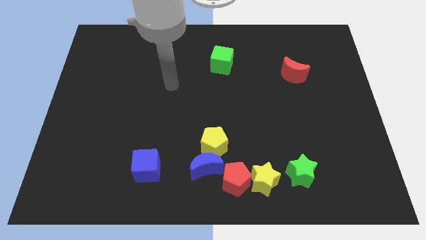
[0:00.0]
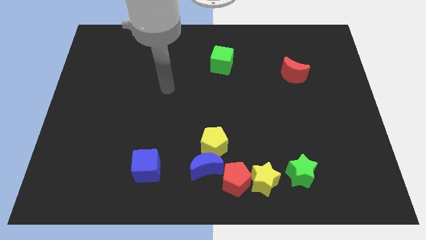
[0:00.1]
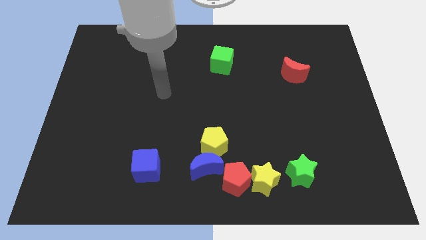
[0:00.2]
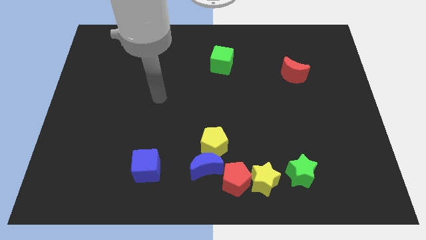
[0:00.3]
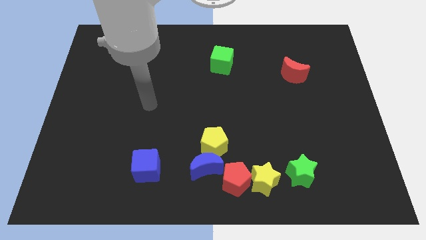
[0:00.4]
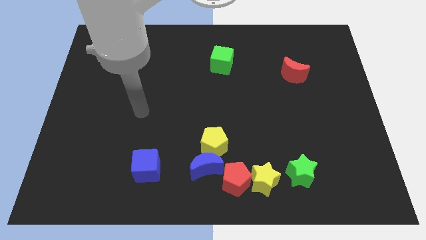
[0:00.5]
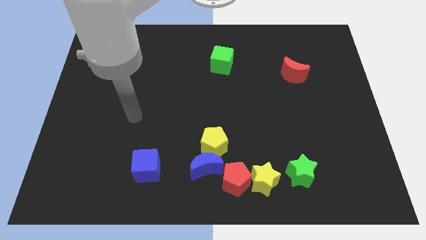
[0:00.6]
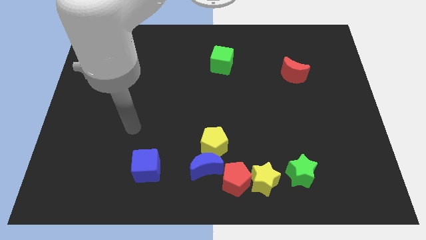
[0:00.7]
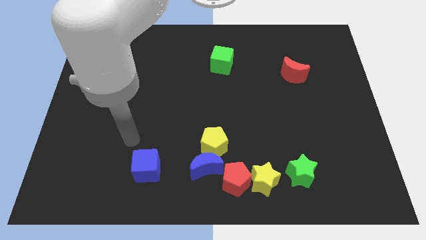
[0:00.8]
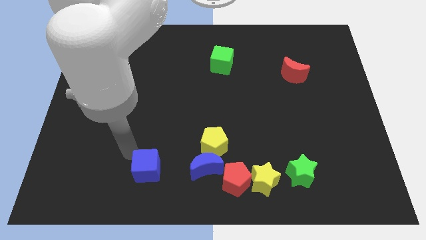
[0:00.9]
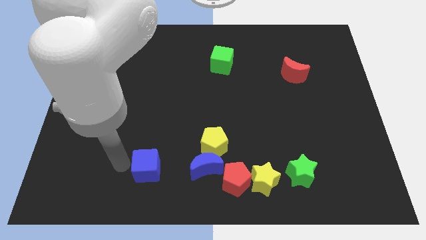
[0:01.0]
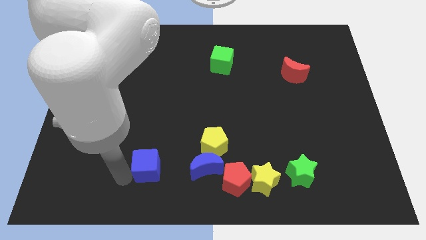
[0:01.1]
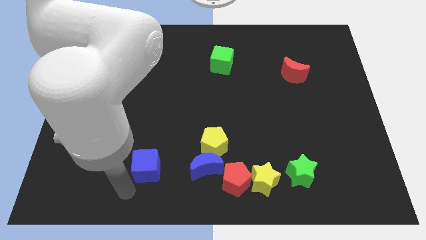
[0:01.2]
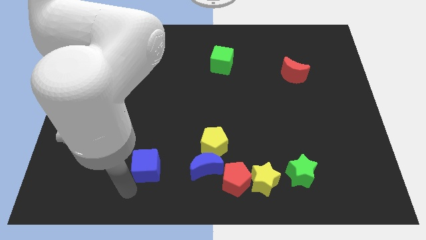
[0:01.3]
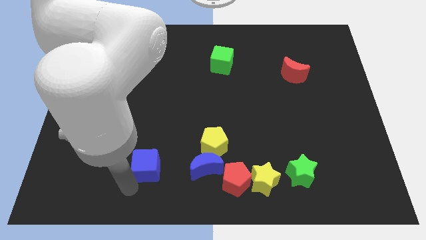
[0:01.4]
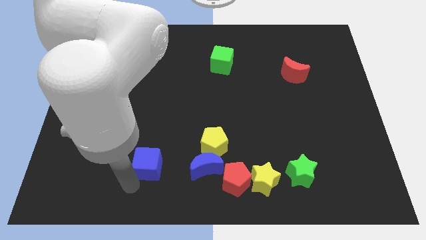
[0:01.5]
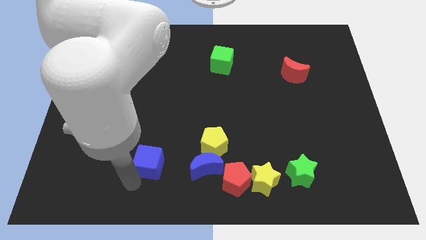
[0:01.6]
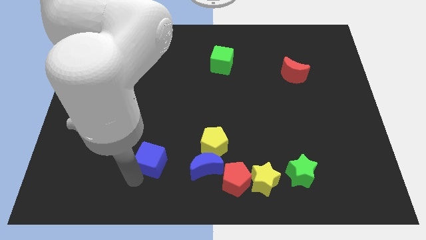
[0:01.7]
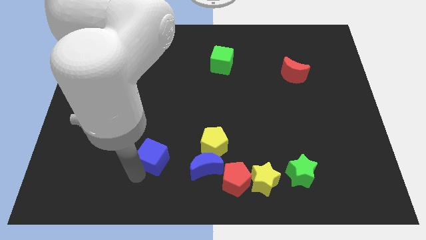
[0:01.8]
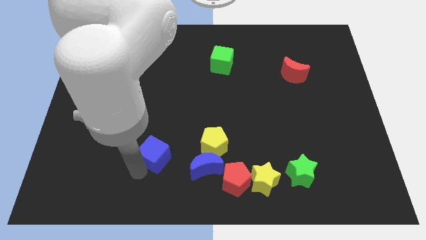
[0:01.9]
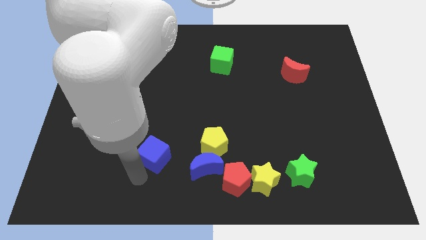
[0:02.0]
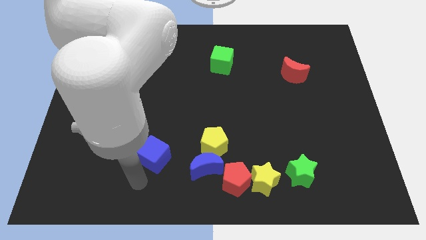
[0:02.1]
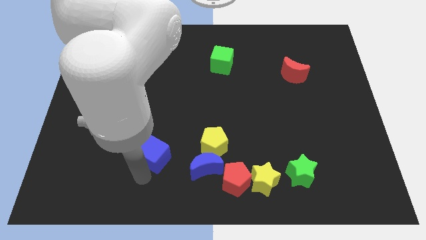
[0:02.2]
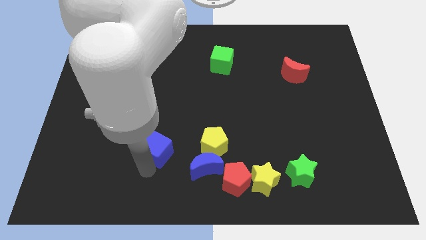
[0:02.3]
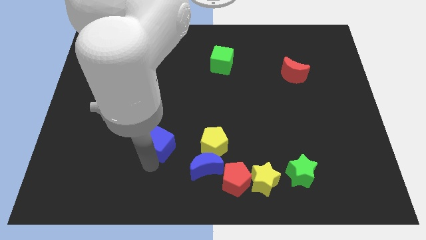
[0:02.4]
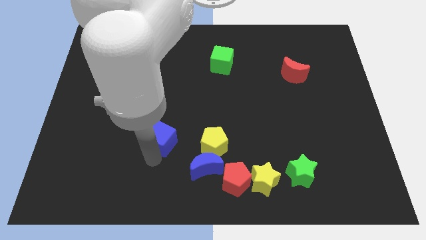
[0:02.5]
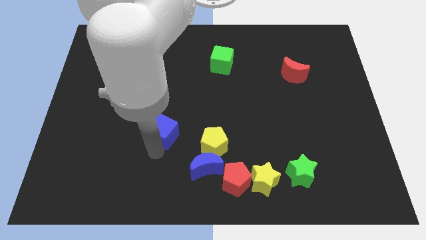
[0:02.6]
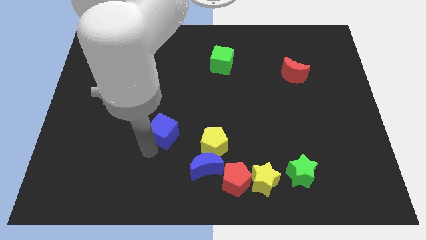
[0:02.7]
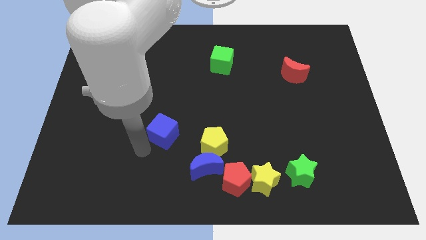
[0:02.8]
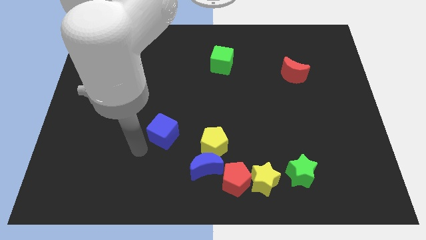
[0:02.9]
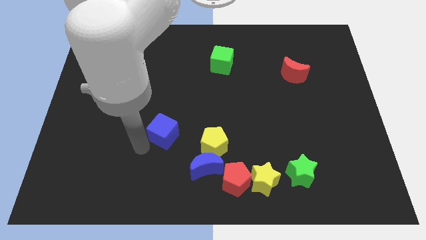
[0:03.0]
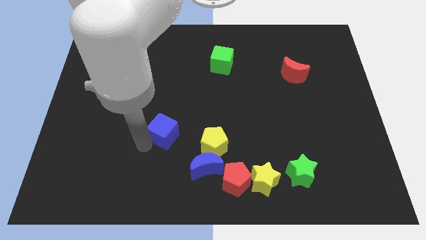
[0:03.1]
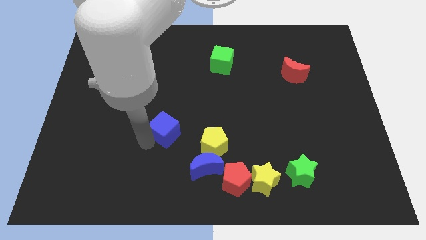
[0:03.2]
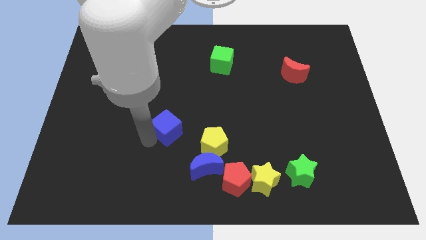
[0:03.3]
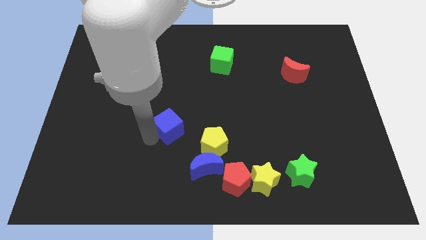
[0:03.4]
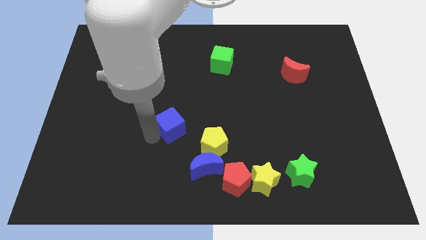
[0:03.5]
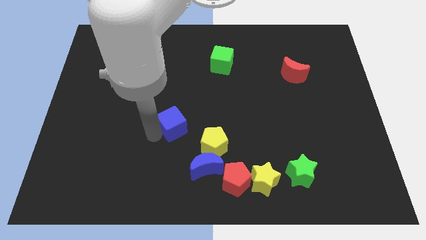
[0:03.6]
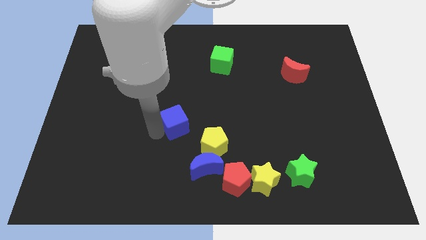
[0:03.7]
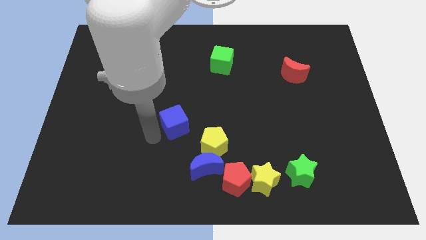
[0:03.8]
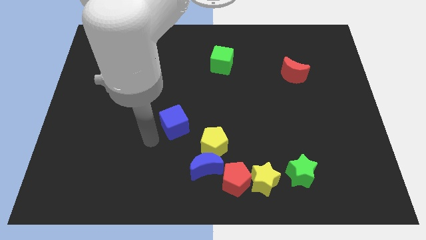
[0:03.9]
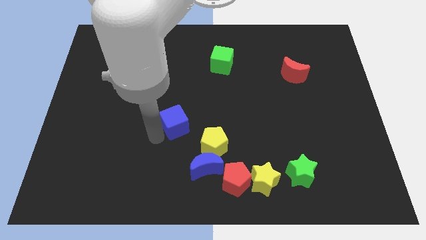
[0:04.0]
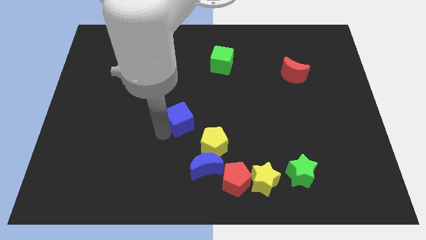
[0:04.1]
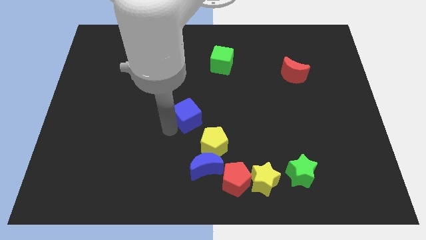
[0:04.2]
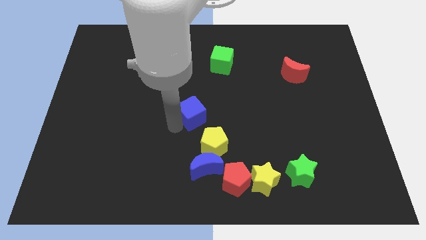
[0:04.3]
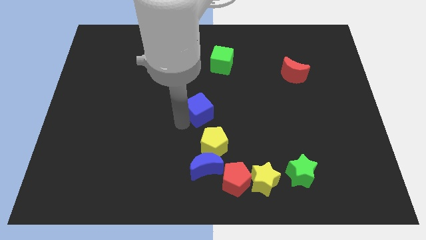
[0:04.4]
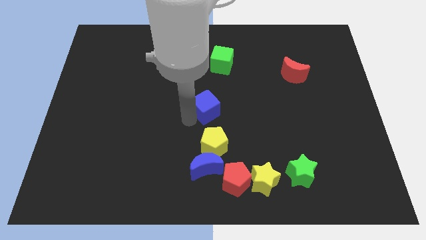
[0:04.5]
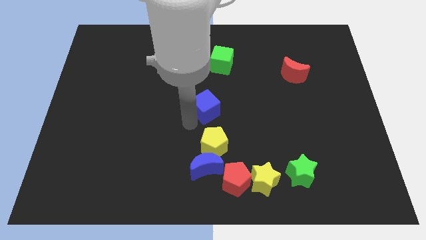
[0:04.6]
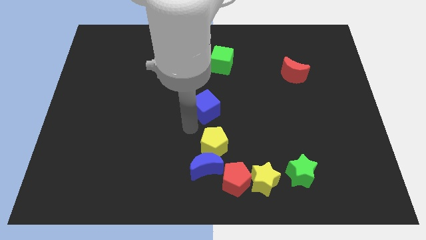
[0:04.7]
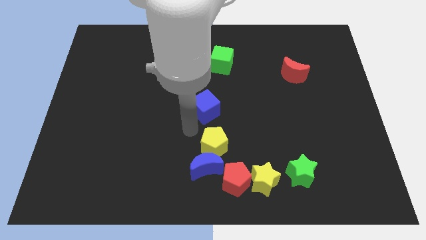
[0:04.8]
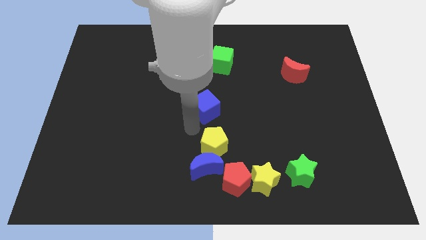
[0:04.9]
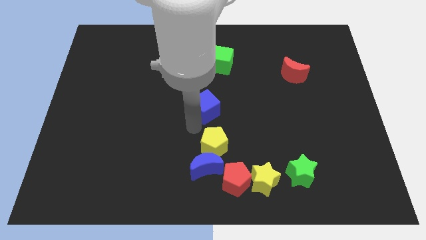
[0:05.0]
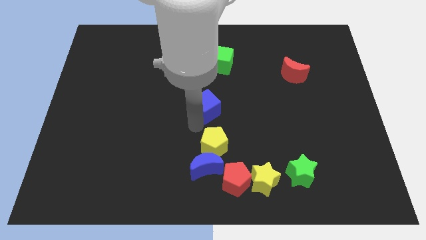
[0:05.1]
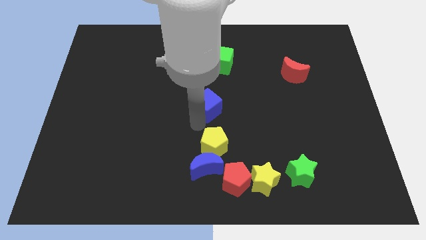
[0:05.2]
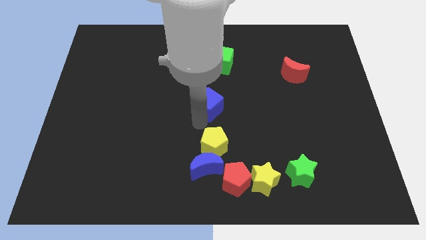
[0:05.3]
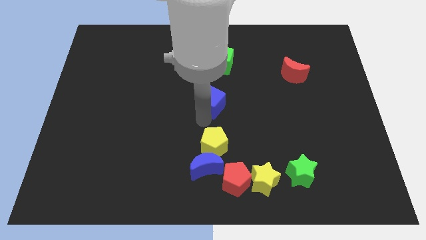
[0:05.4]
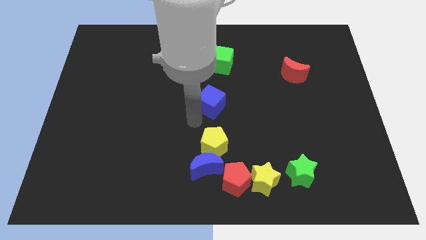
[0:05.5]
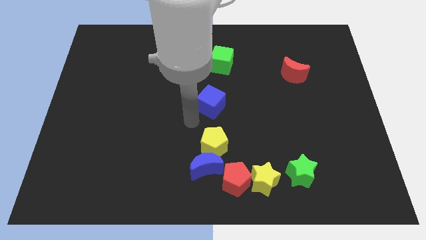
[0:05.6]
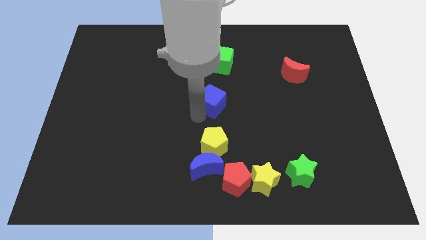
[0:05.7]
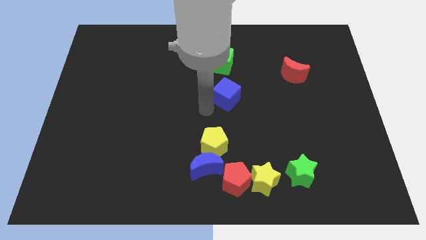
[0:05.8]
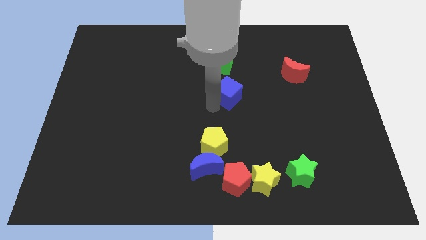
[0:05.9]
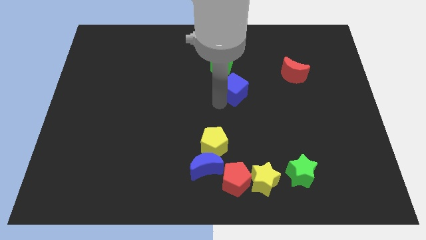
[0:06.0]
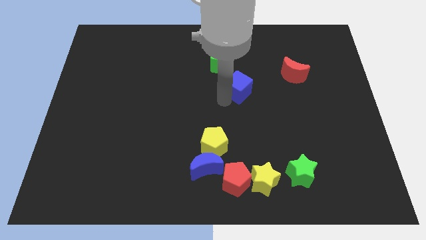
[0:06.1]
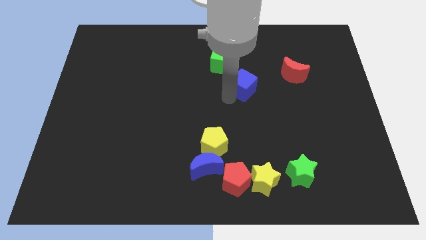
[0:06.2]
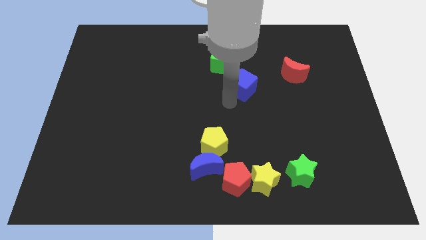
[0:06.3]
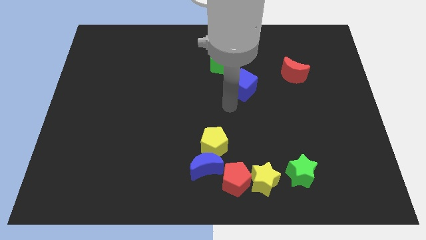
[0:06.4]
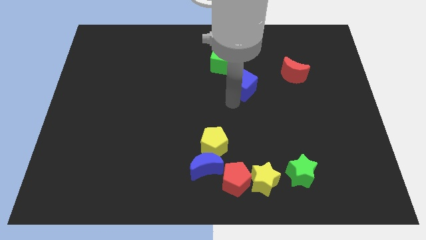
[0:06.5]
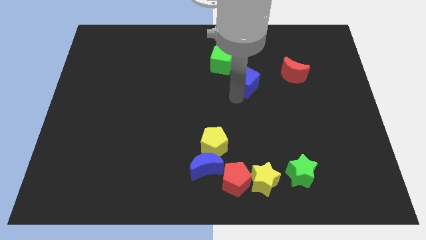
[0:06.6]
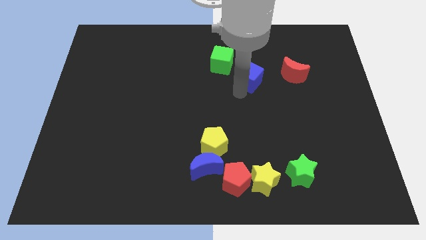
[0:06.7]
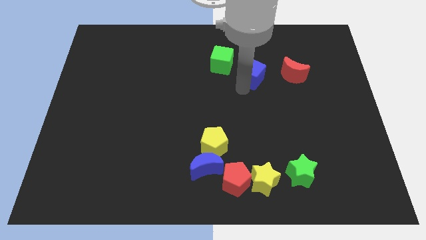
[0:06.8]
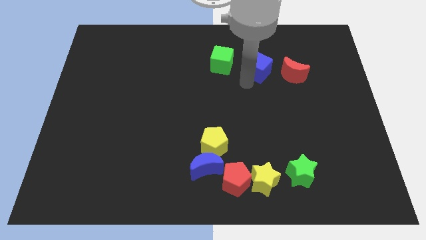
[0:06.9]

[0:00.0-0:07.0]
move the blue cube to the top left of the red moon

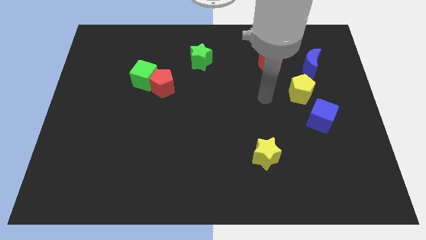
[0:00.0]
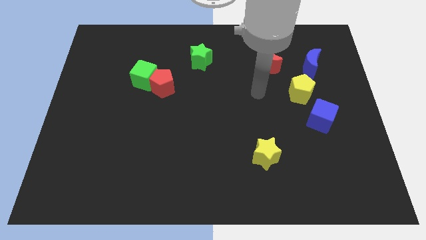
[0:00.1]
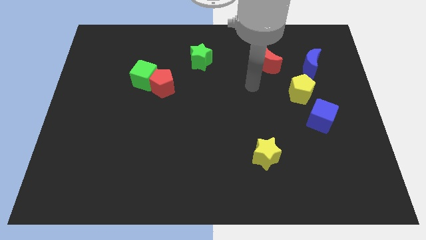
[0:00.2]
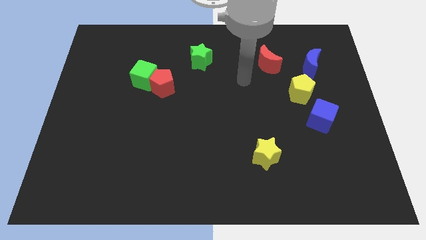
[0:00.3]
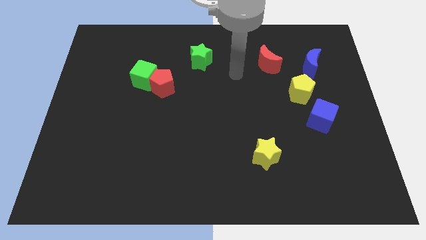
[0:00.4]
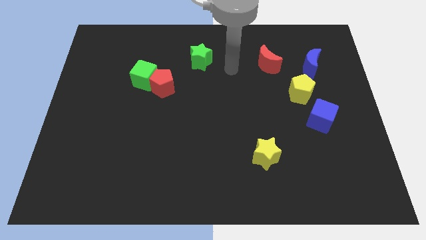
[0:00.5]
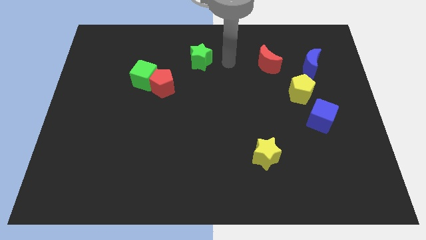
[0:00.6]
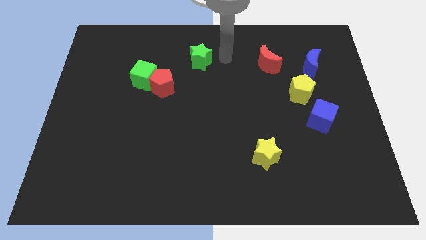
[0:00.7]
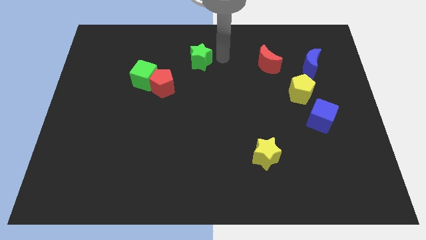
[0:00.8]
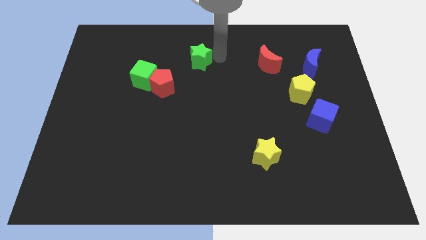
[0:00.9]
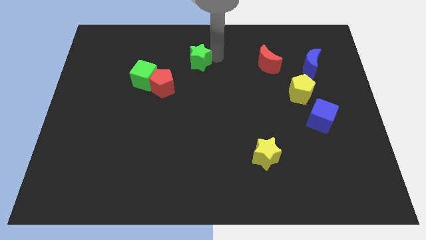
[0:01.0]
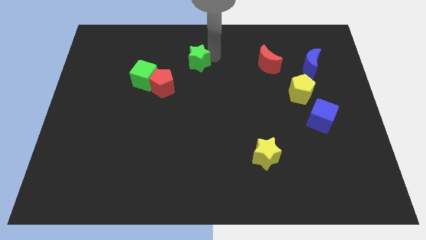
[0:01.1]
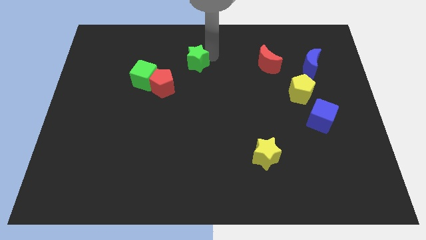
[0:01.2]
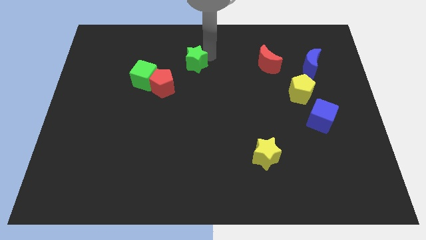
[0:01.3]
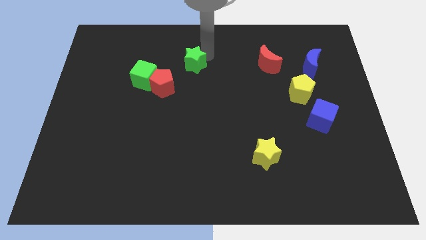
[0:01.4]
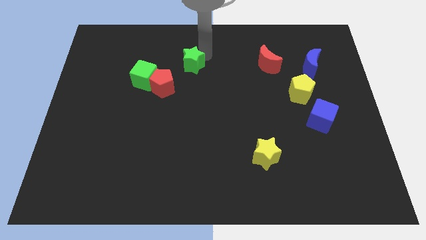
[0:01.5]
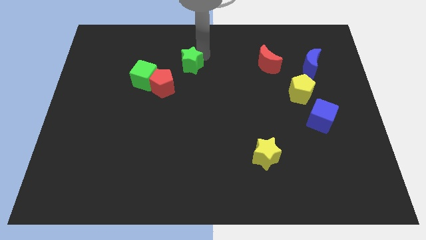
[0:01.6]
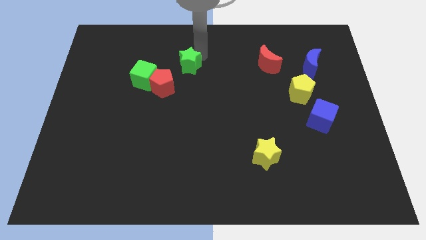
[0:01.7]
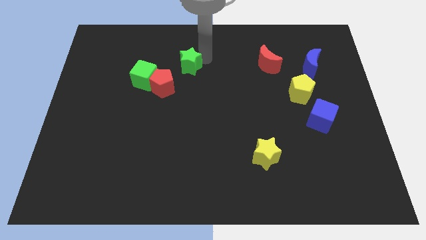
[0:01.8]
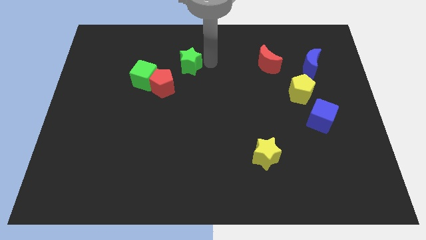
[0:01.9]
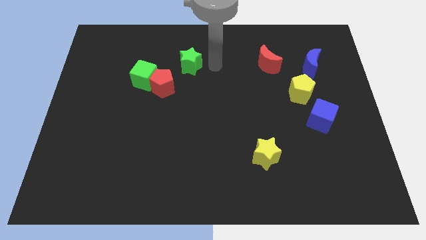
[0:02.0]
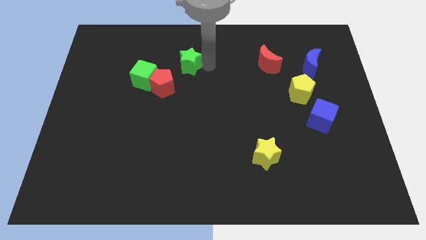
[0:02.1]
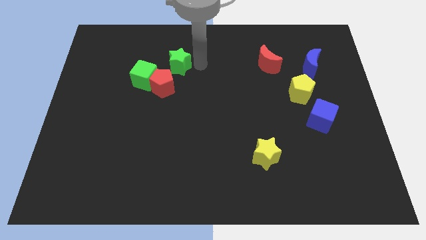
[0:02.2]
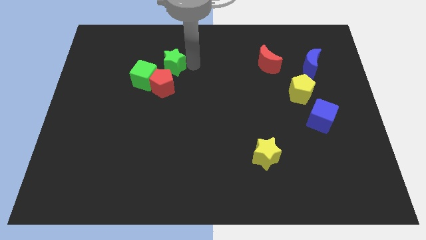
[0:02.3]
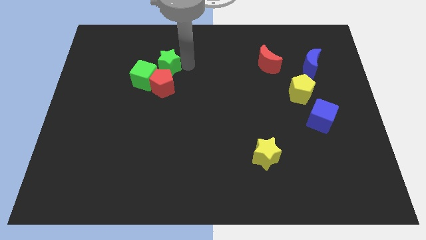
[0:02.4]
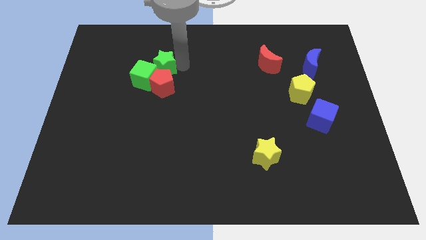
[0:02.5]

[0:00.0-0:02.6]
push the green star to the top left of the red pentagon
